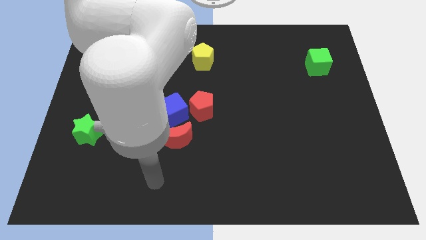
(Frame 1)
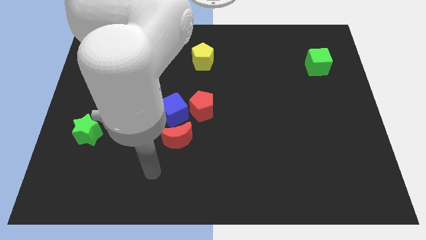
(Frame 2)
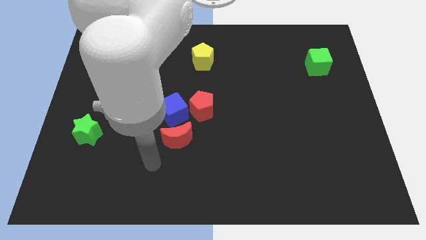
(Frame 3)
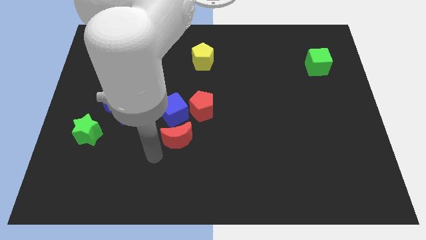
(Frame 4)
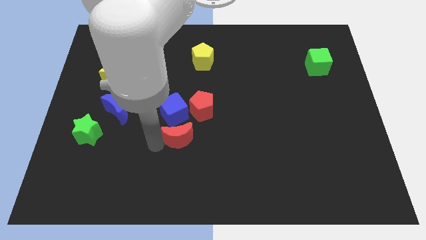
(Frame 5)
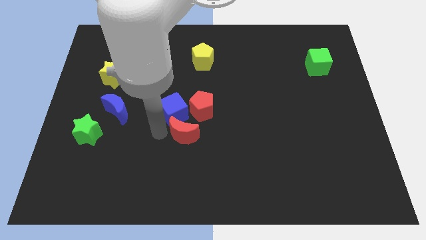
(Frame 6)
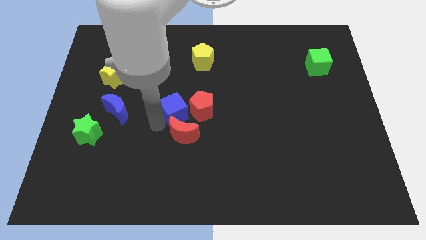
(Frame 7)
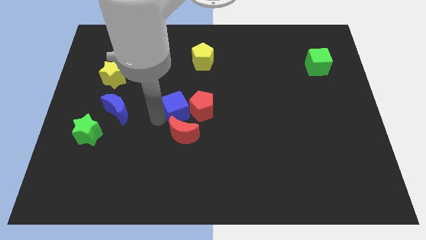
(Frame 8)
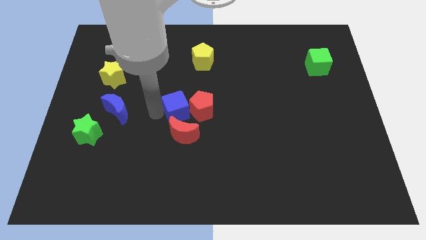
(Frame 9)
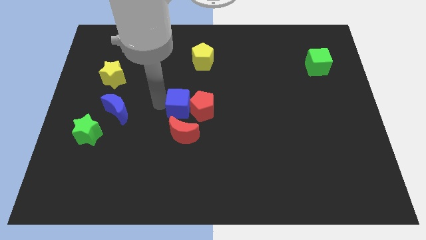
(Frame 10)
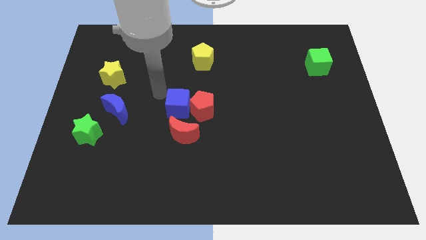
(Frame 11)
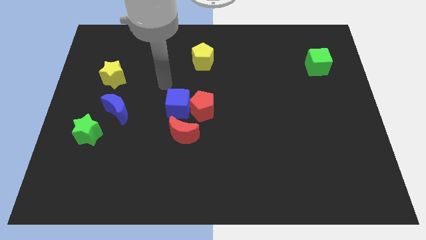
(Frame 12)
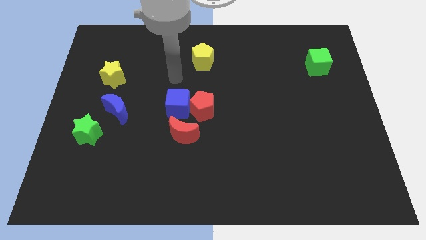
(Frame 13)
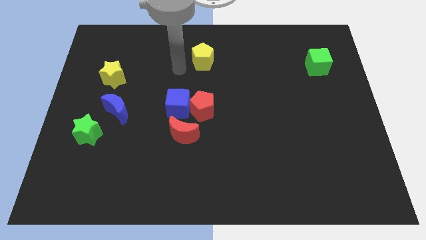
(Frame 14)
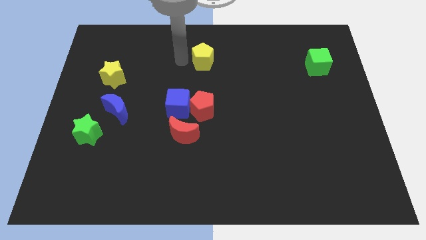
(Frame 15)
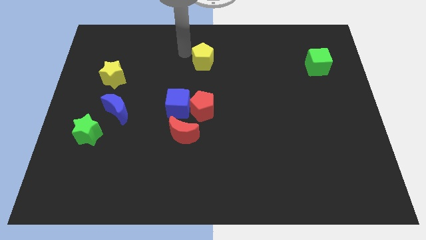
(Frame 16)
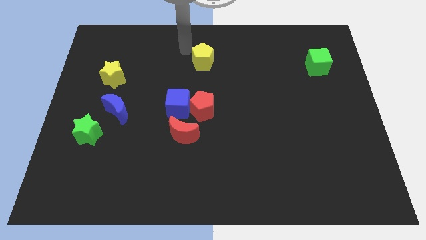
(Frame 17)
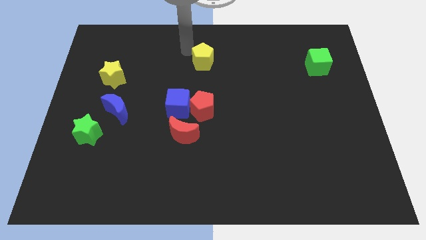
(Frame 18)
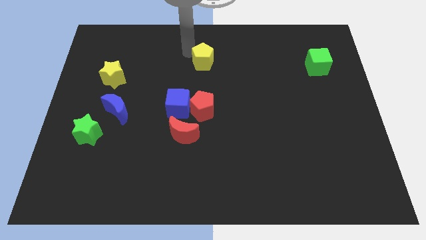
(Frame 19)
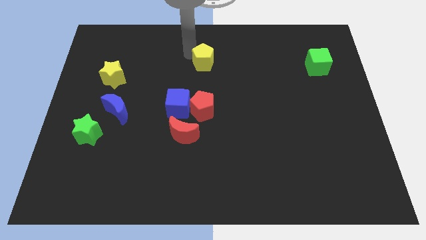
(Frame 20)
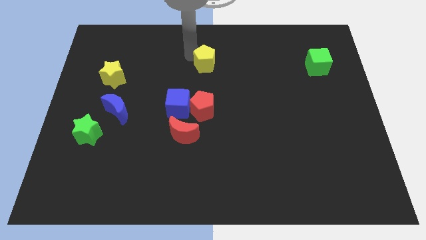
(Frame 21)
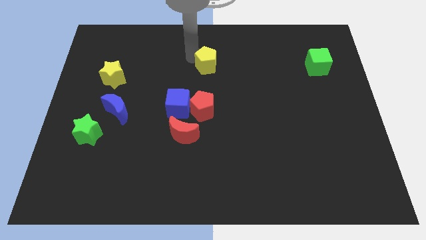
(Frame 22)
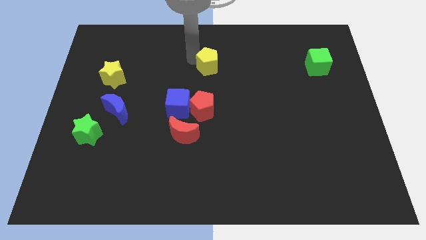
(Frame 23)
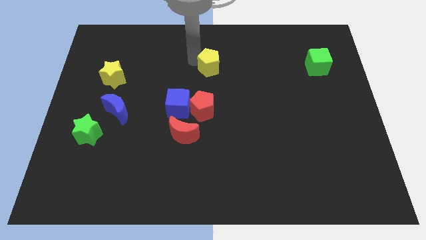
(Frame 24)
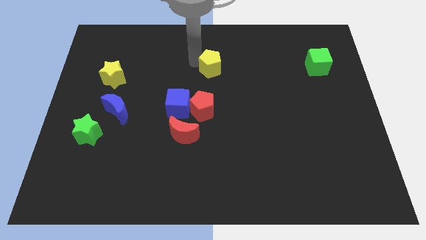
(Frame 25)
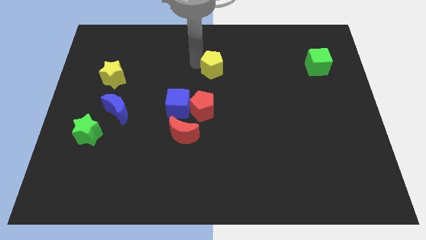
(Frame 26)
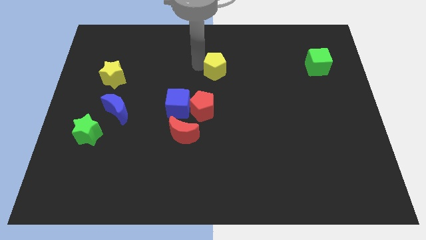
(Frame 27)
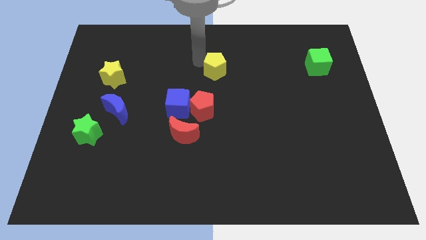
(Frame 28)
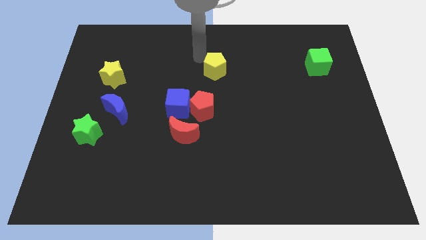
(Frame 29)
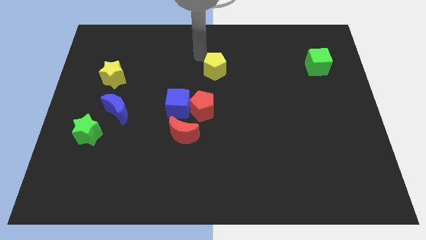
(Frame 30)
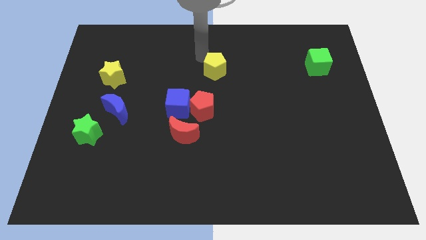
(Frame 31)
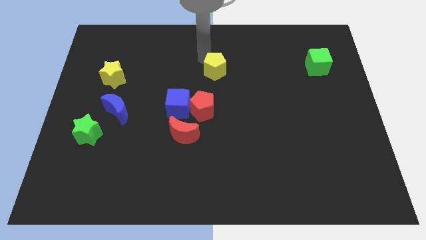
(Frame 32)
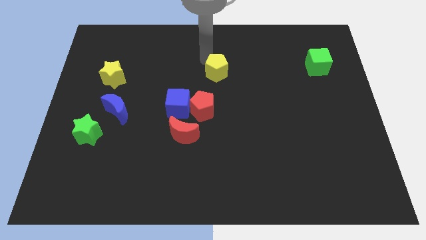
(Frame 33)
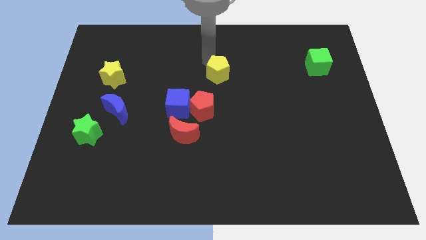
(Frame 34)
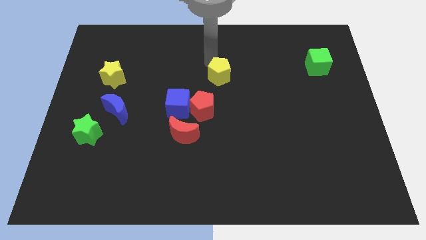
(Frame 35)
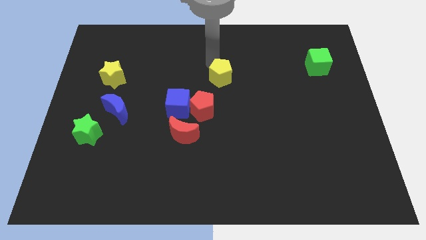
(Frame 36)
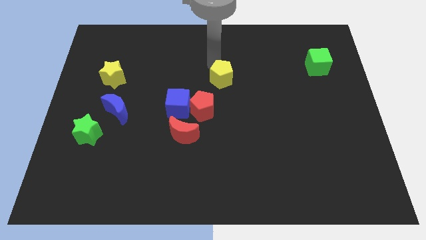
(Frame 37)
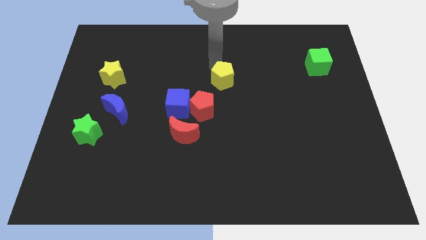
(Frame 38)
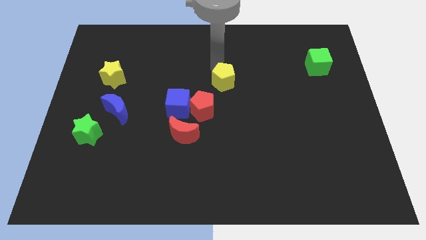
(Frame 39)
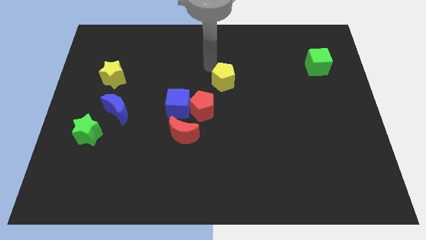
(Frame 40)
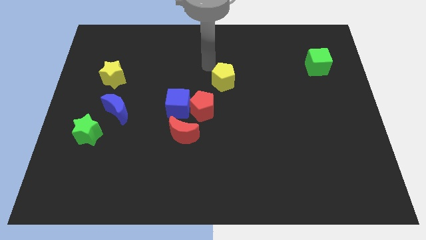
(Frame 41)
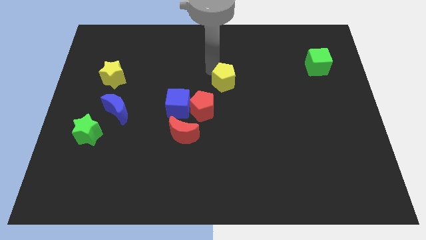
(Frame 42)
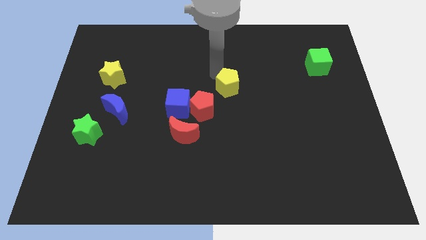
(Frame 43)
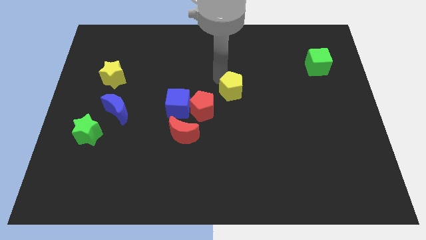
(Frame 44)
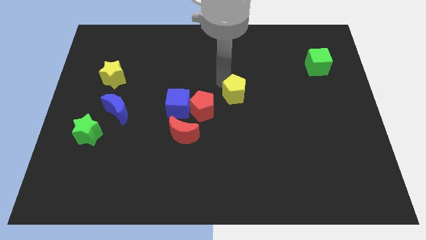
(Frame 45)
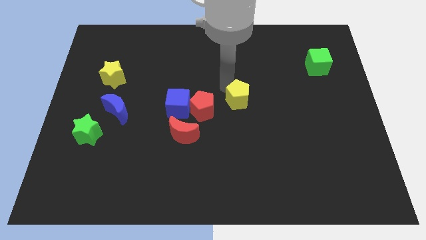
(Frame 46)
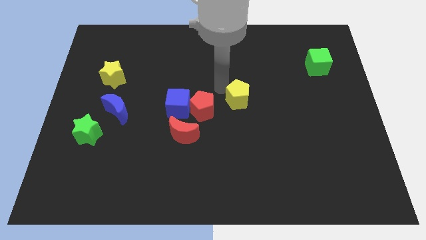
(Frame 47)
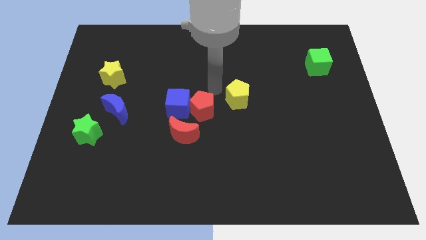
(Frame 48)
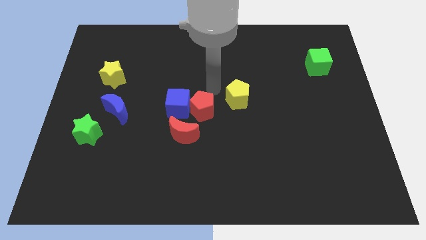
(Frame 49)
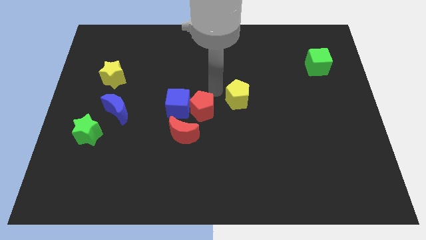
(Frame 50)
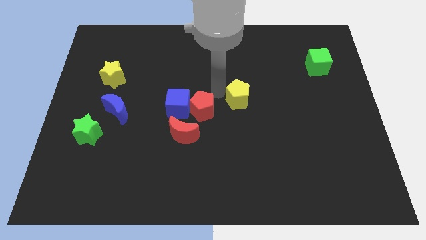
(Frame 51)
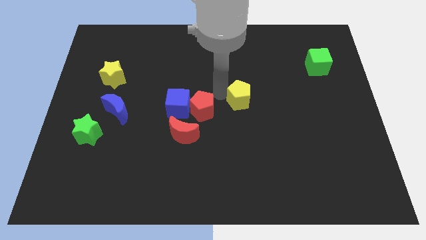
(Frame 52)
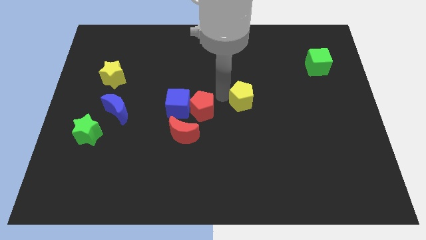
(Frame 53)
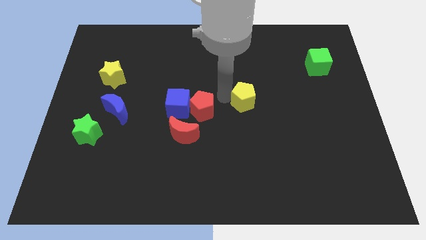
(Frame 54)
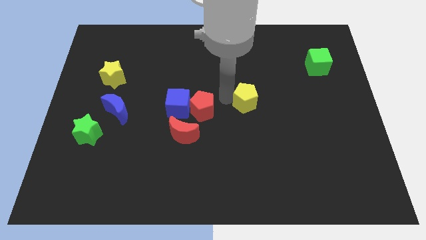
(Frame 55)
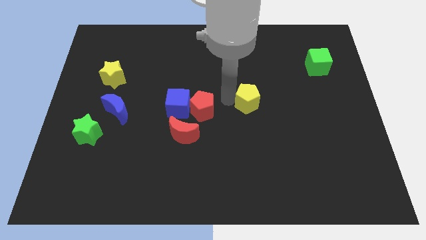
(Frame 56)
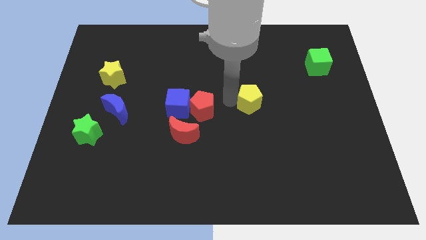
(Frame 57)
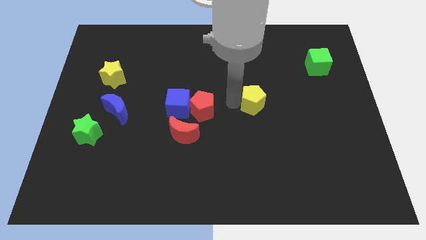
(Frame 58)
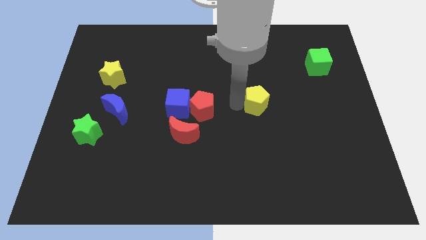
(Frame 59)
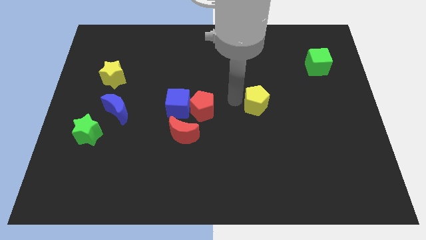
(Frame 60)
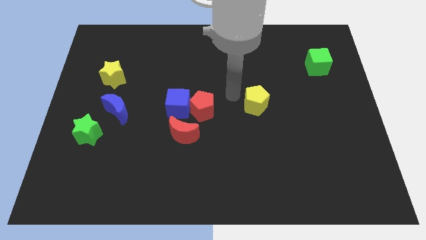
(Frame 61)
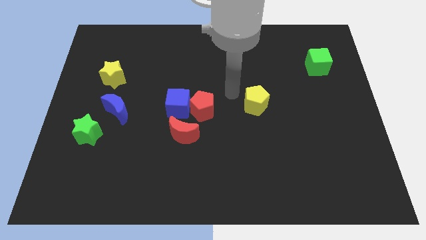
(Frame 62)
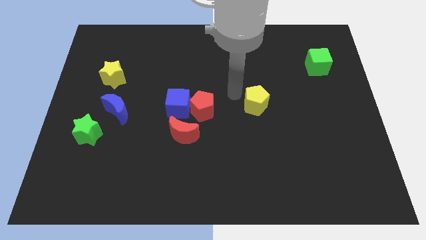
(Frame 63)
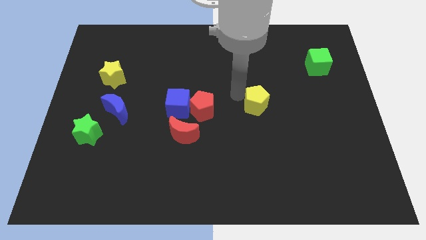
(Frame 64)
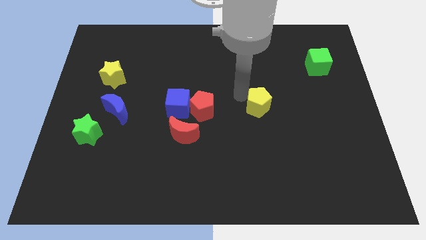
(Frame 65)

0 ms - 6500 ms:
move the yellow pentagon downwards and then to the right

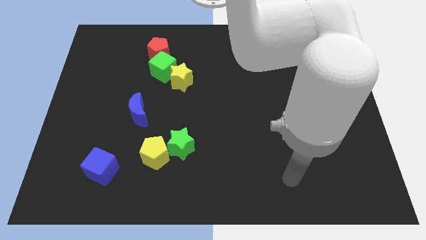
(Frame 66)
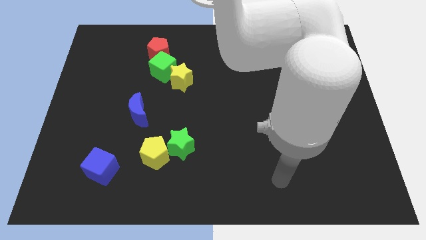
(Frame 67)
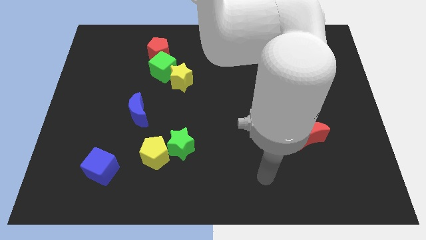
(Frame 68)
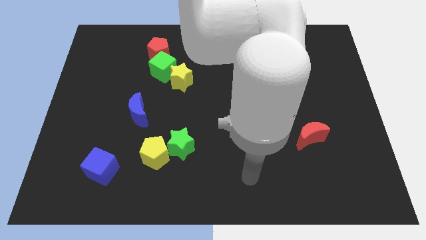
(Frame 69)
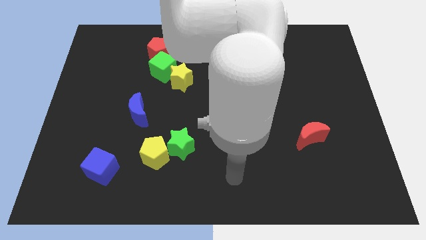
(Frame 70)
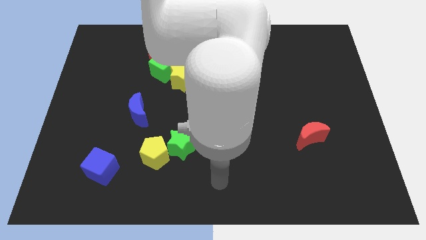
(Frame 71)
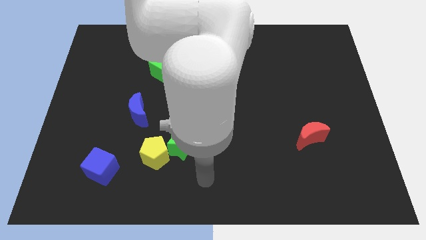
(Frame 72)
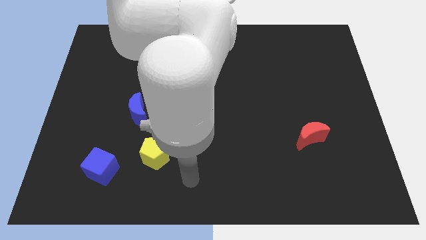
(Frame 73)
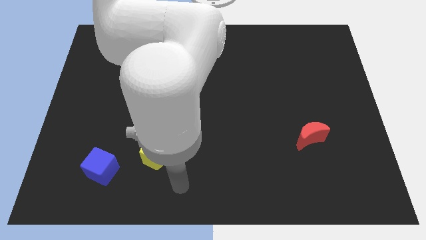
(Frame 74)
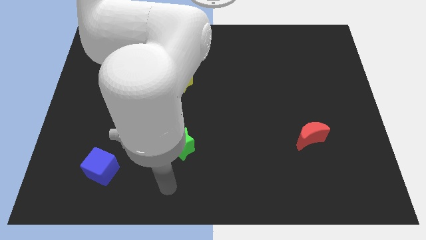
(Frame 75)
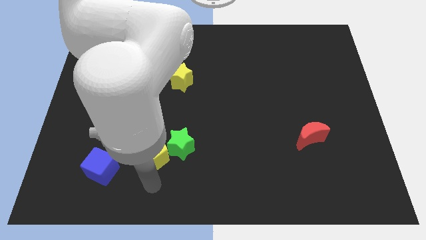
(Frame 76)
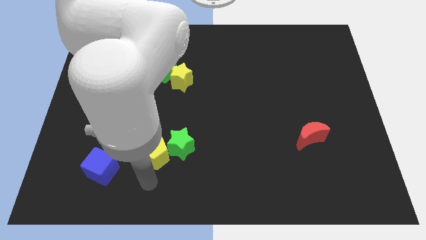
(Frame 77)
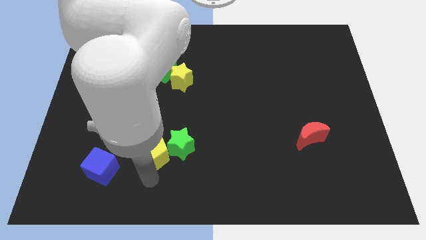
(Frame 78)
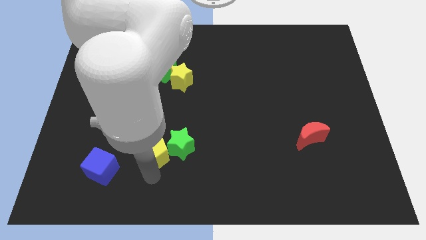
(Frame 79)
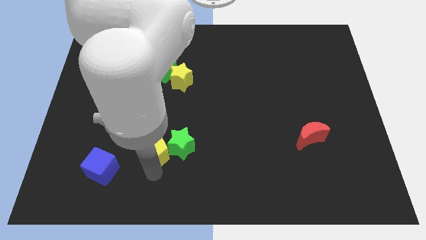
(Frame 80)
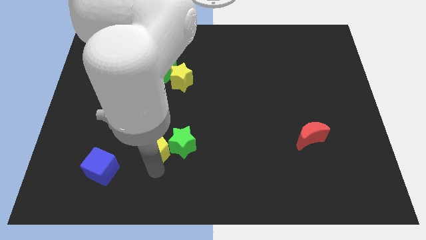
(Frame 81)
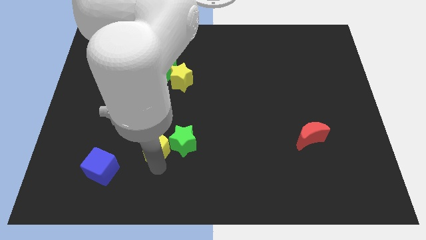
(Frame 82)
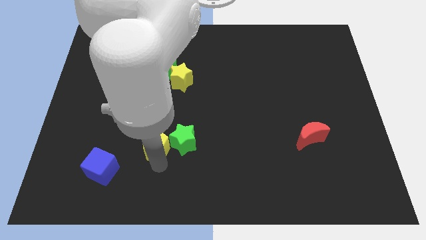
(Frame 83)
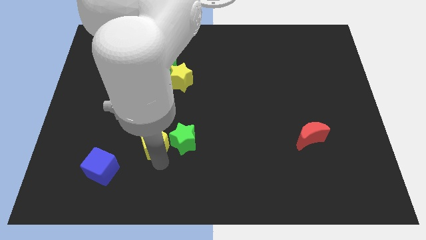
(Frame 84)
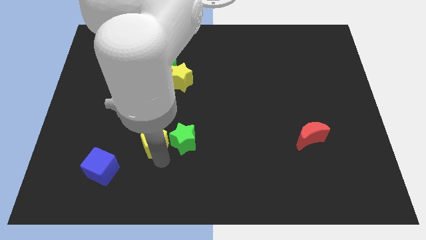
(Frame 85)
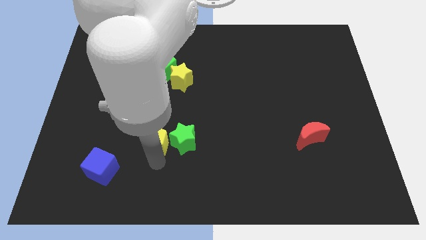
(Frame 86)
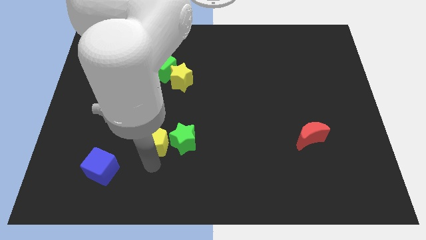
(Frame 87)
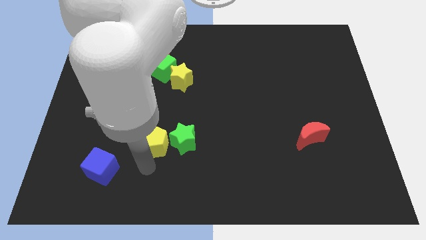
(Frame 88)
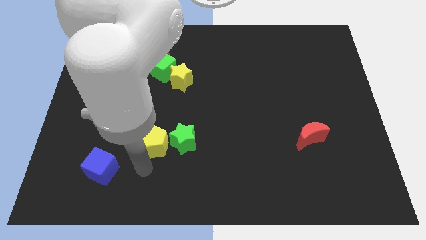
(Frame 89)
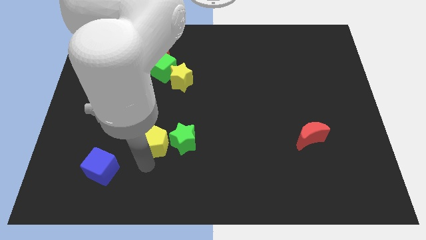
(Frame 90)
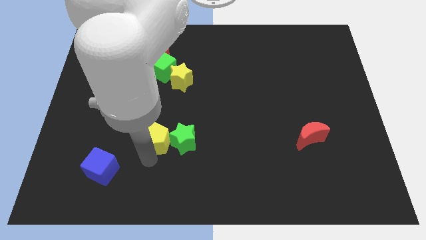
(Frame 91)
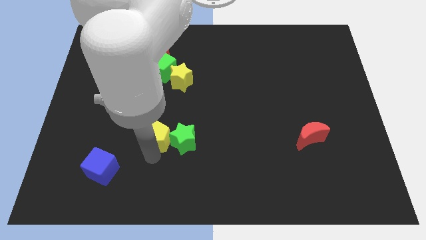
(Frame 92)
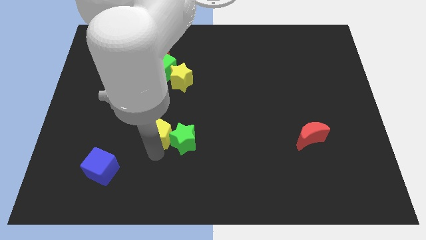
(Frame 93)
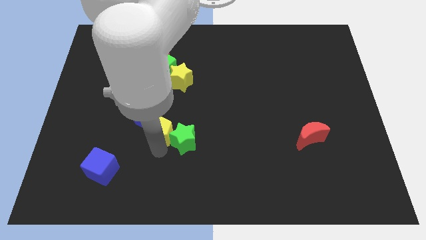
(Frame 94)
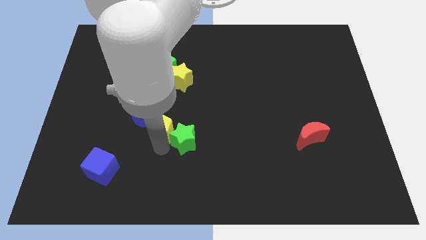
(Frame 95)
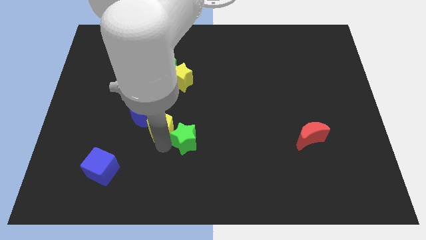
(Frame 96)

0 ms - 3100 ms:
move the yellow pentagon a bit upwards
